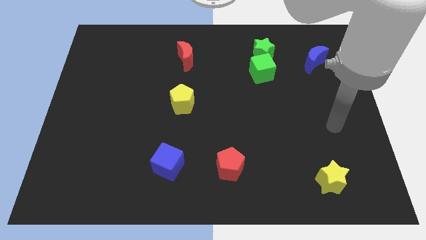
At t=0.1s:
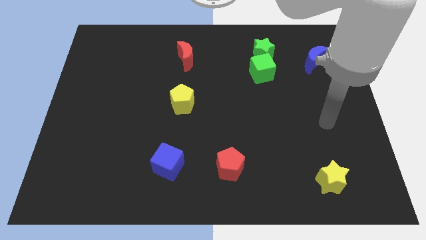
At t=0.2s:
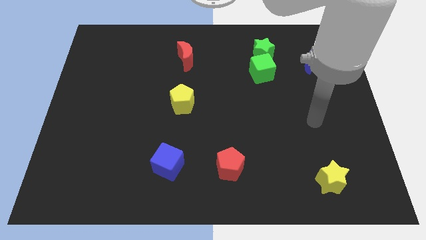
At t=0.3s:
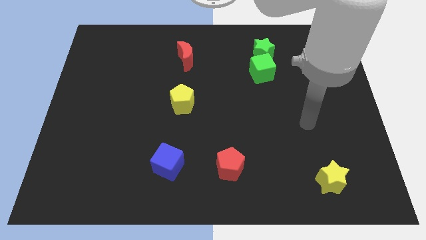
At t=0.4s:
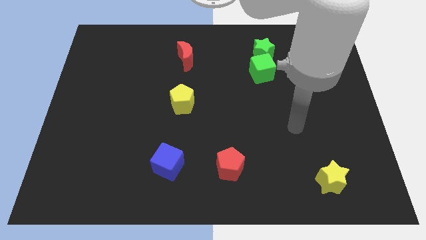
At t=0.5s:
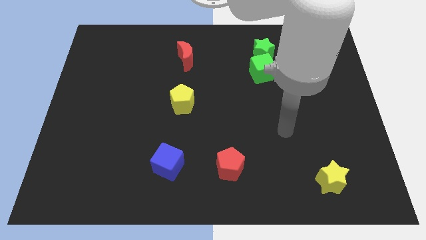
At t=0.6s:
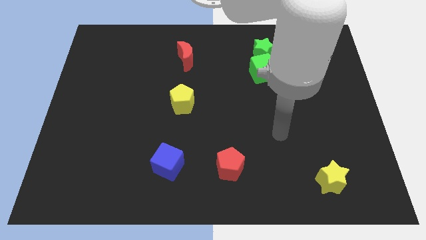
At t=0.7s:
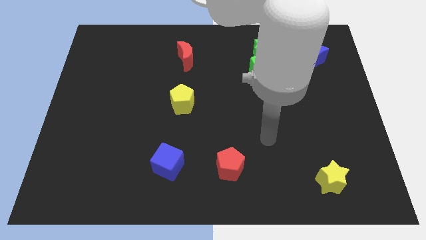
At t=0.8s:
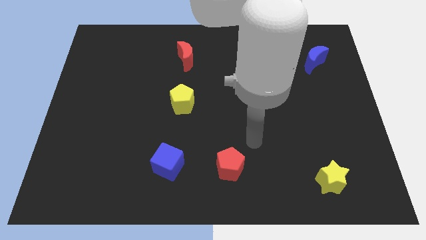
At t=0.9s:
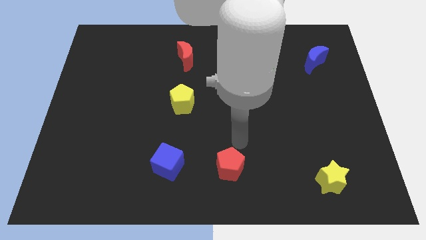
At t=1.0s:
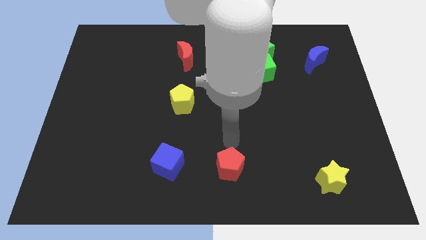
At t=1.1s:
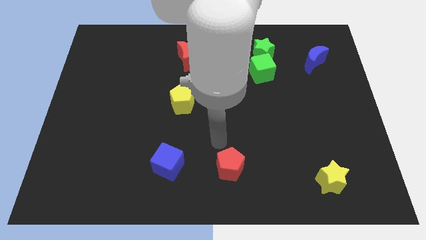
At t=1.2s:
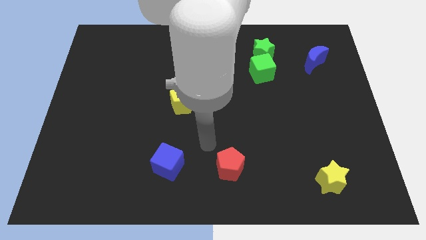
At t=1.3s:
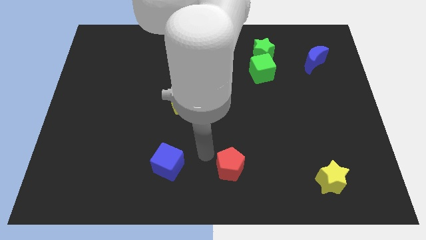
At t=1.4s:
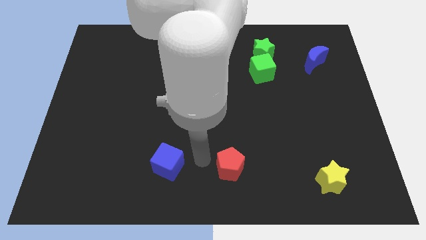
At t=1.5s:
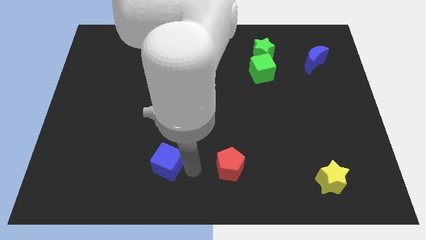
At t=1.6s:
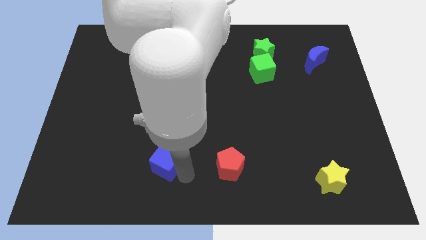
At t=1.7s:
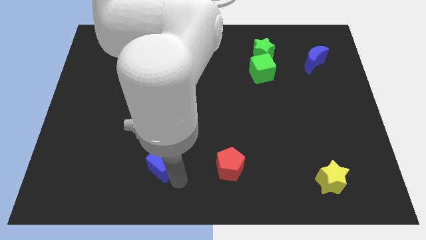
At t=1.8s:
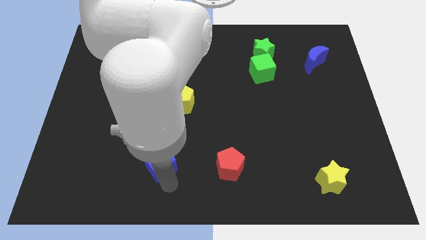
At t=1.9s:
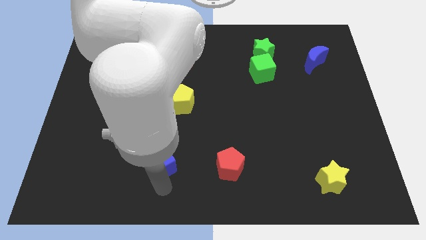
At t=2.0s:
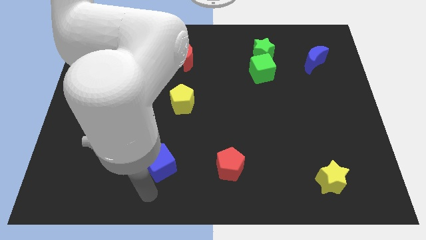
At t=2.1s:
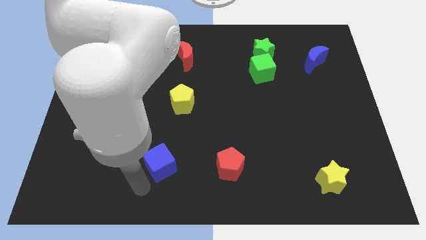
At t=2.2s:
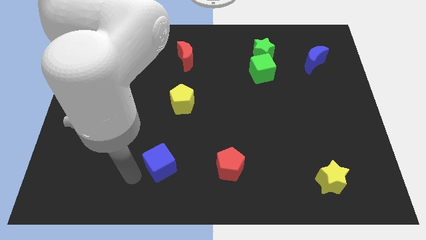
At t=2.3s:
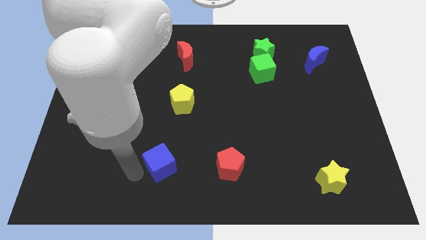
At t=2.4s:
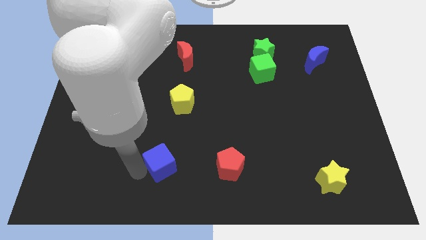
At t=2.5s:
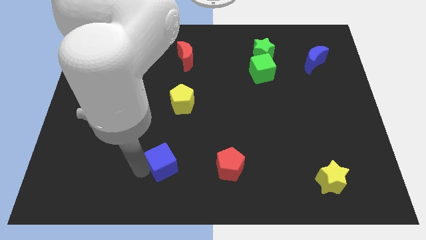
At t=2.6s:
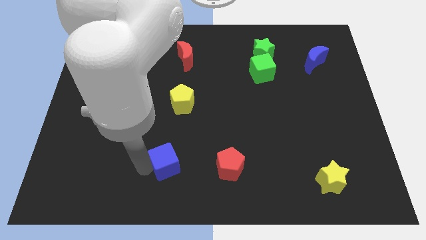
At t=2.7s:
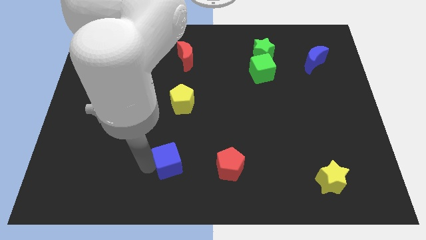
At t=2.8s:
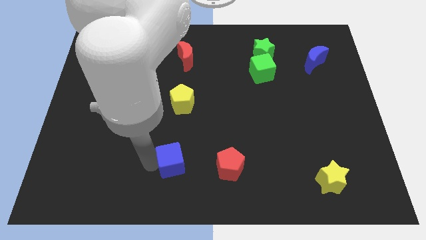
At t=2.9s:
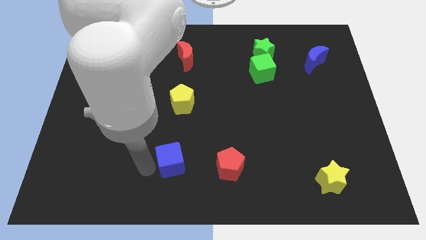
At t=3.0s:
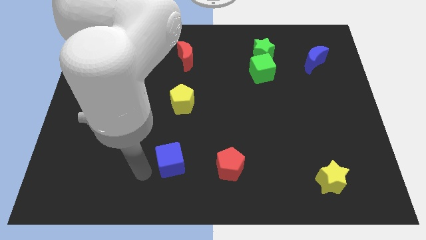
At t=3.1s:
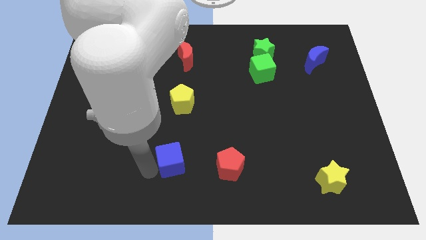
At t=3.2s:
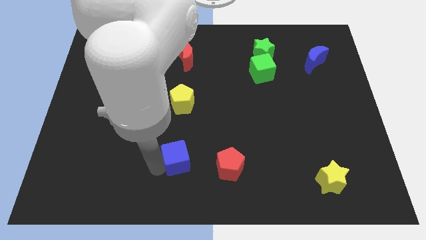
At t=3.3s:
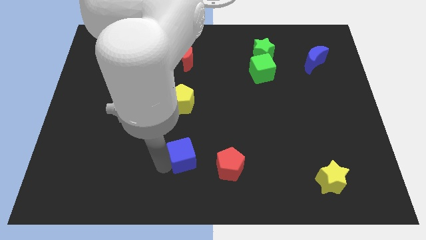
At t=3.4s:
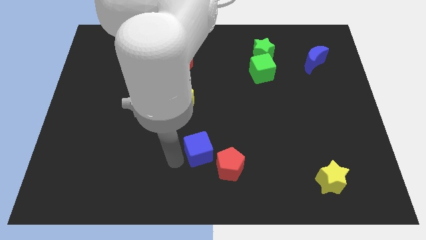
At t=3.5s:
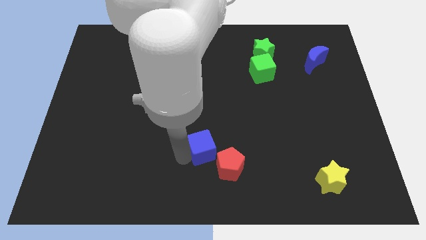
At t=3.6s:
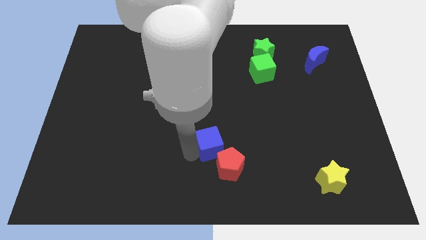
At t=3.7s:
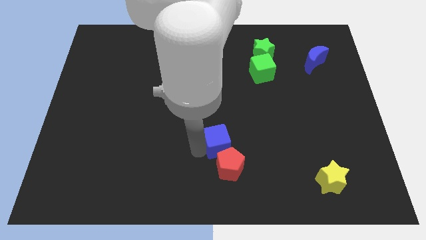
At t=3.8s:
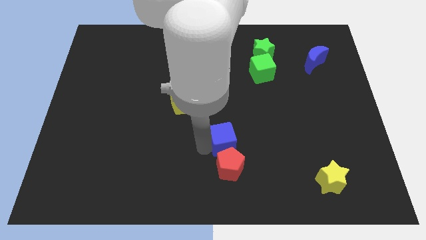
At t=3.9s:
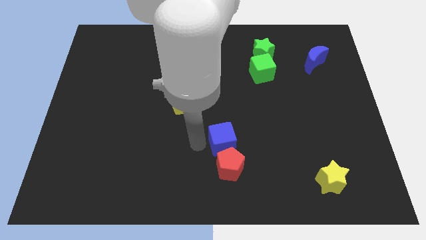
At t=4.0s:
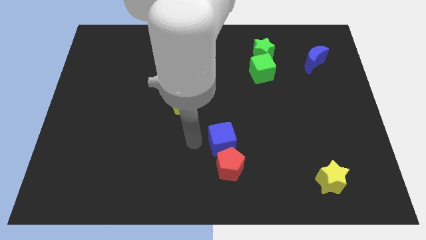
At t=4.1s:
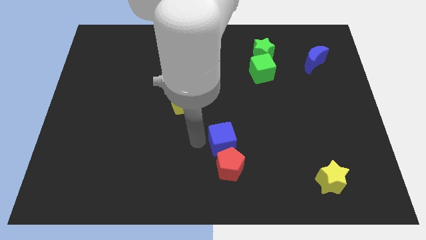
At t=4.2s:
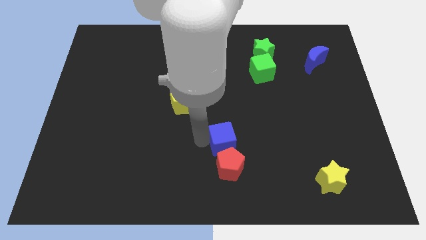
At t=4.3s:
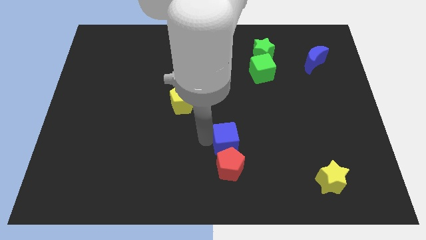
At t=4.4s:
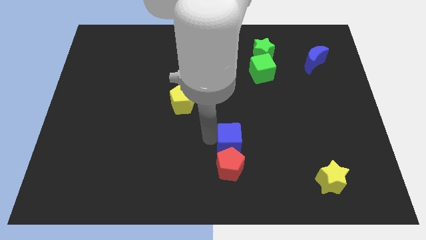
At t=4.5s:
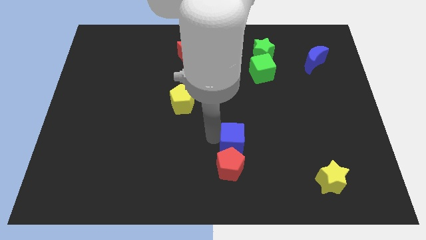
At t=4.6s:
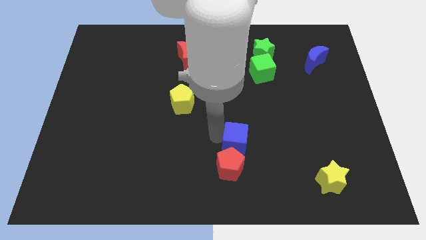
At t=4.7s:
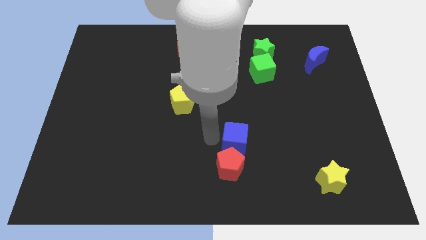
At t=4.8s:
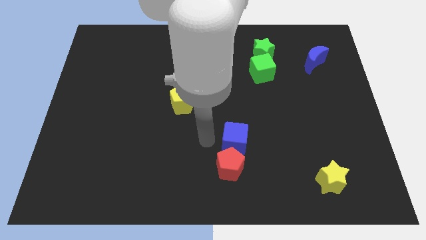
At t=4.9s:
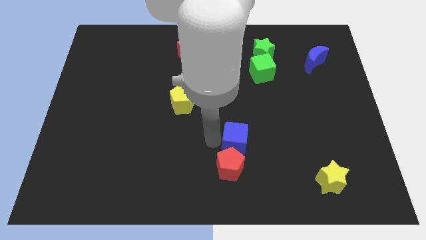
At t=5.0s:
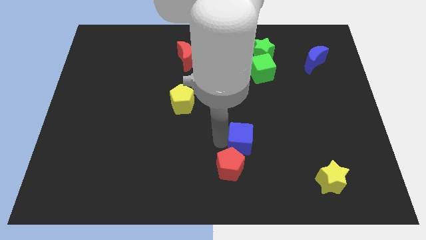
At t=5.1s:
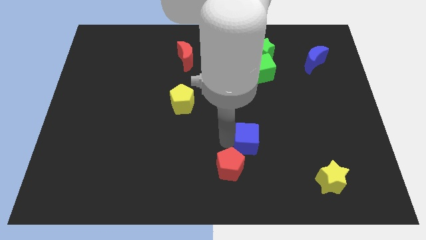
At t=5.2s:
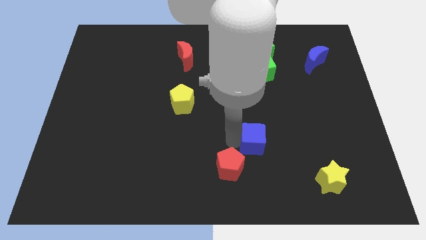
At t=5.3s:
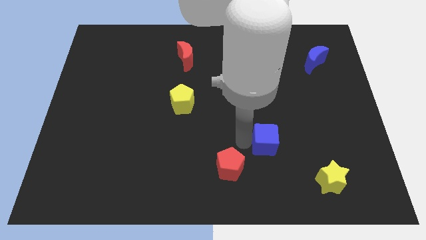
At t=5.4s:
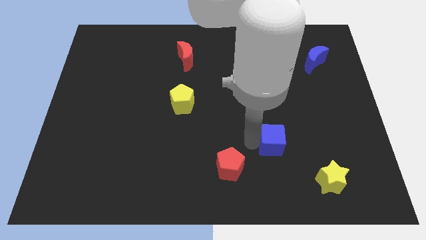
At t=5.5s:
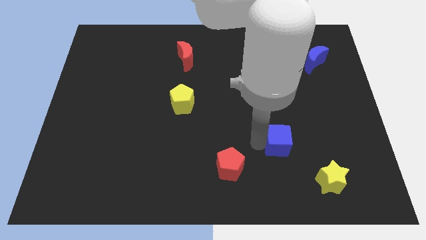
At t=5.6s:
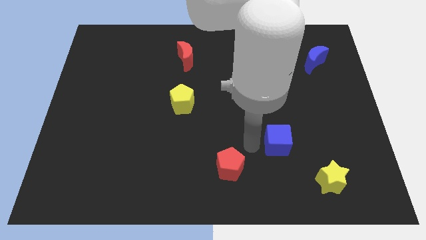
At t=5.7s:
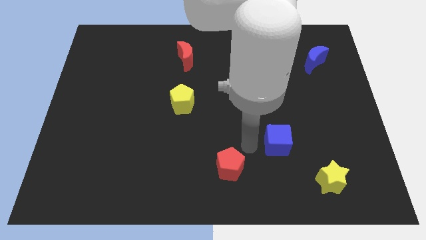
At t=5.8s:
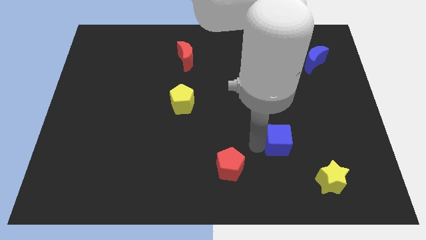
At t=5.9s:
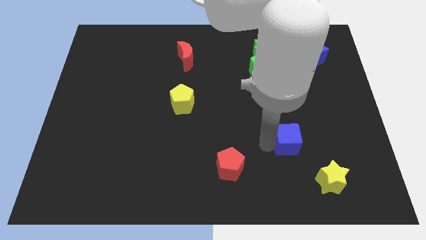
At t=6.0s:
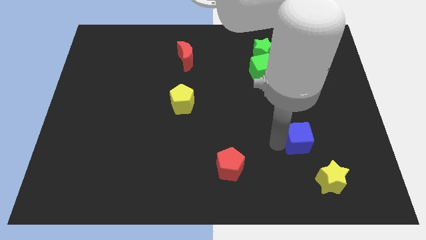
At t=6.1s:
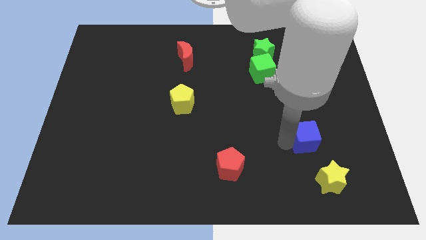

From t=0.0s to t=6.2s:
slide the blue cube above the yellow star

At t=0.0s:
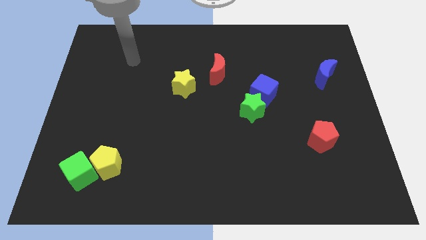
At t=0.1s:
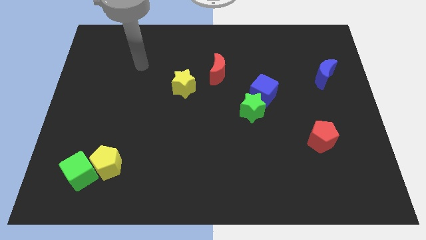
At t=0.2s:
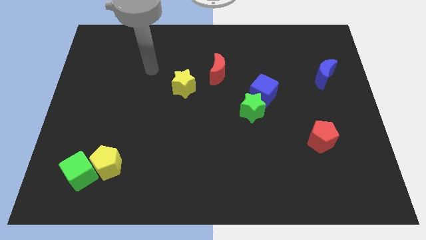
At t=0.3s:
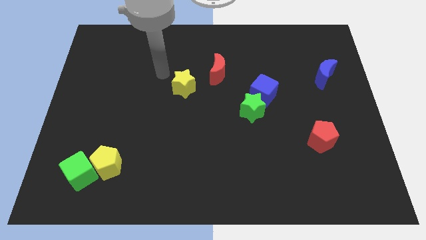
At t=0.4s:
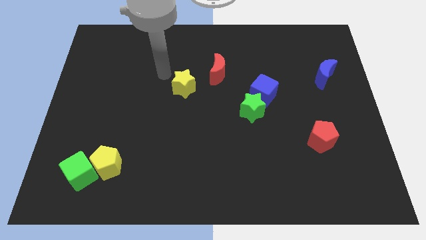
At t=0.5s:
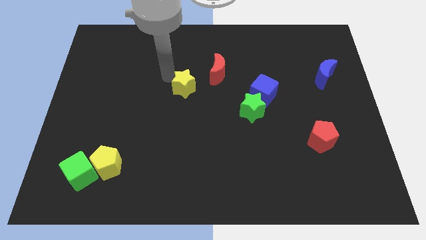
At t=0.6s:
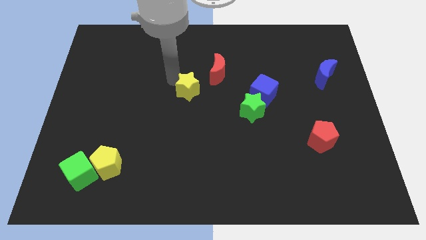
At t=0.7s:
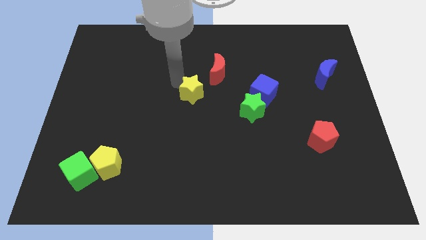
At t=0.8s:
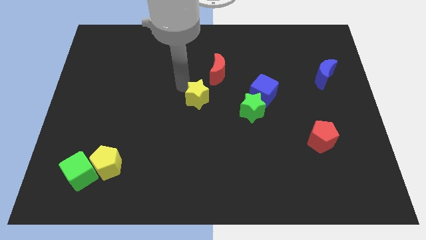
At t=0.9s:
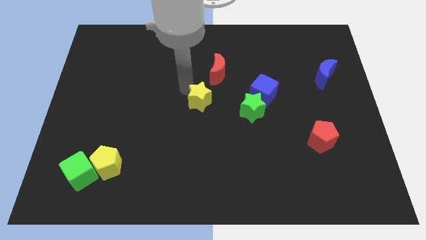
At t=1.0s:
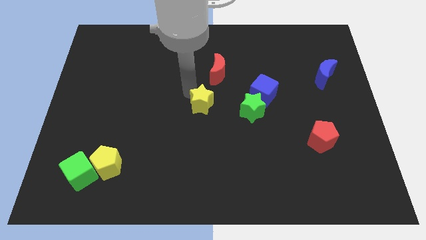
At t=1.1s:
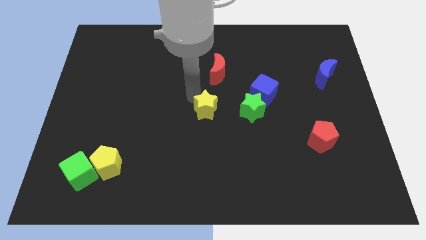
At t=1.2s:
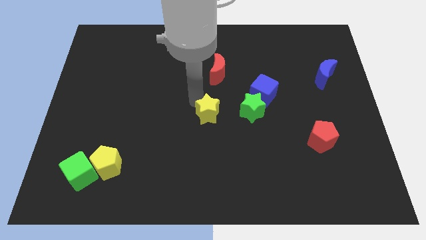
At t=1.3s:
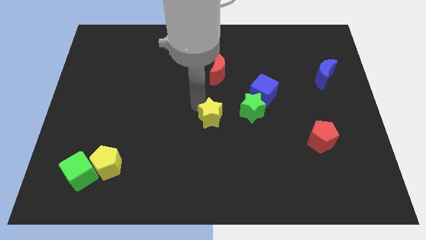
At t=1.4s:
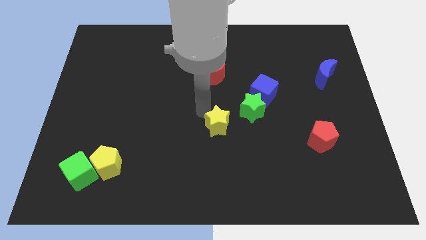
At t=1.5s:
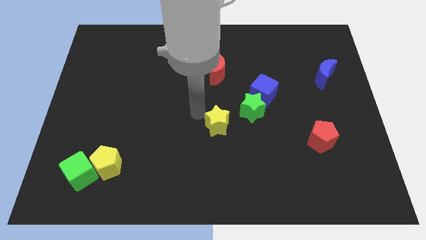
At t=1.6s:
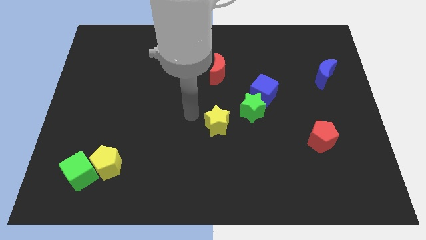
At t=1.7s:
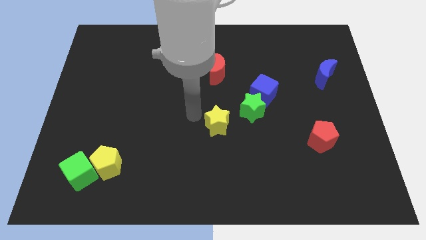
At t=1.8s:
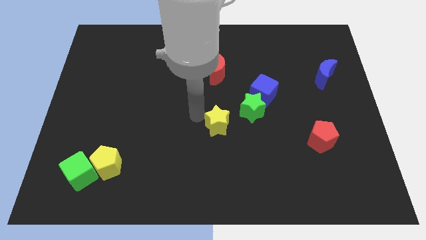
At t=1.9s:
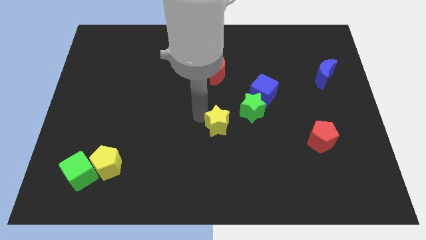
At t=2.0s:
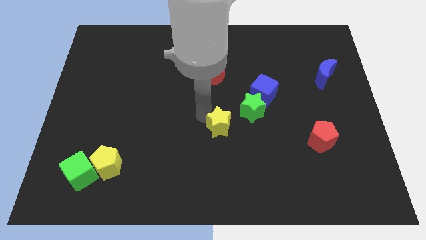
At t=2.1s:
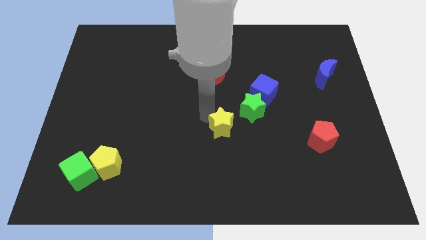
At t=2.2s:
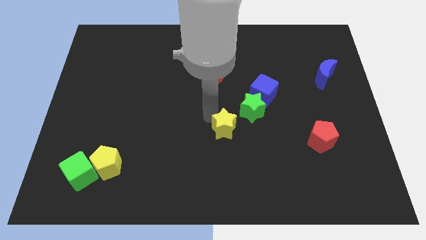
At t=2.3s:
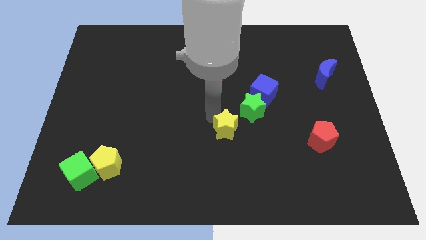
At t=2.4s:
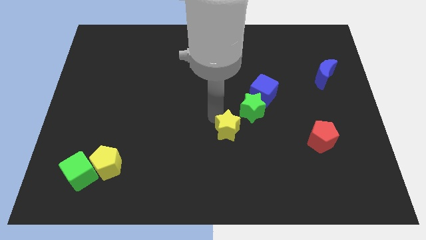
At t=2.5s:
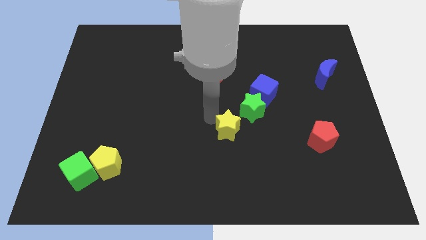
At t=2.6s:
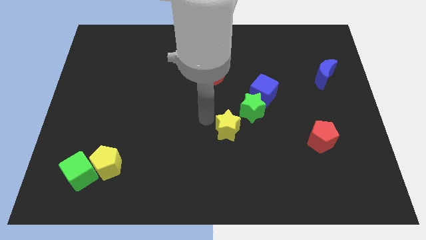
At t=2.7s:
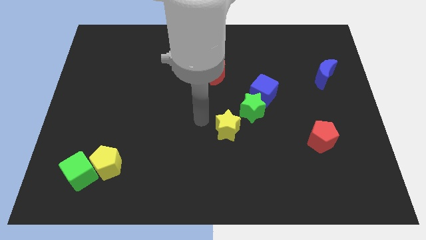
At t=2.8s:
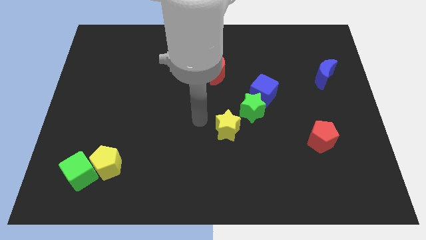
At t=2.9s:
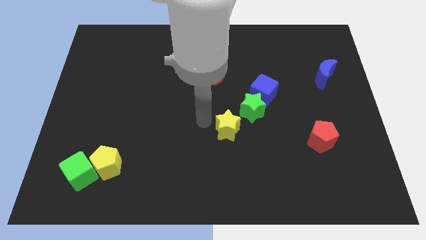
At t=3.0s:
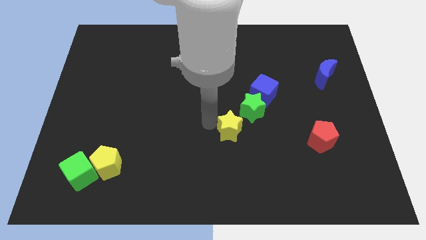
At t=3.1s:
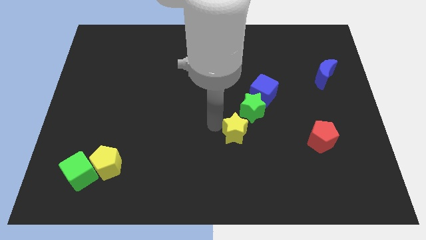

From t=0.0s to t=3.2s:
move the yellow star below the green star
